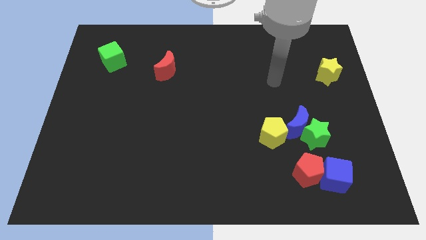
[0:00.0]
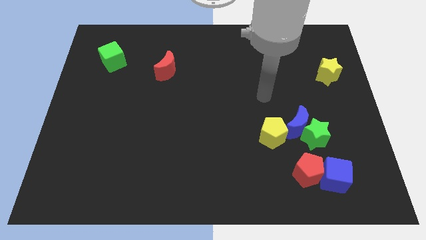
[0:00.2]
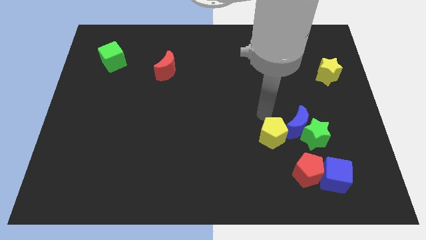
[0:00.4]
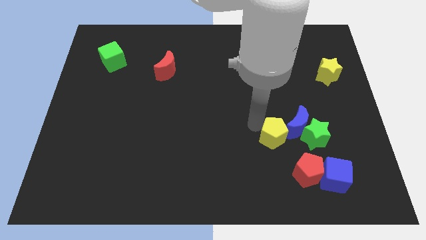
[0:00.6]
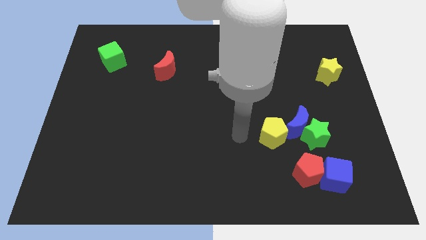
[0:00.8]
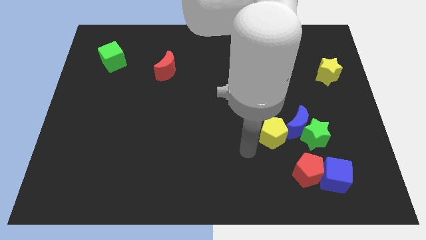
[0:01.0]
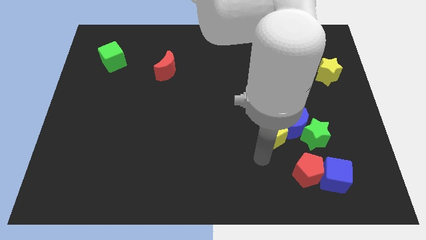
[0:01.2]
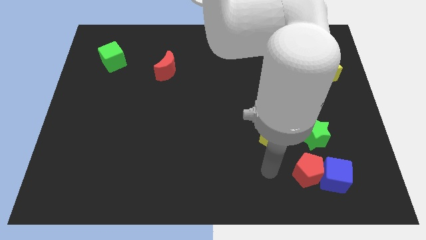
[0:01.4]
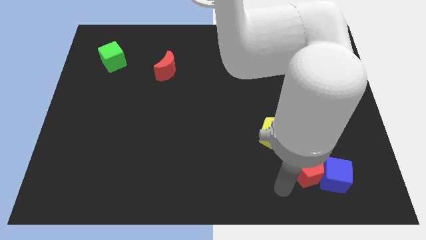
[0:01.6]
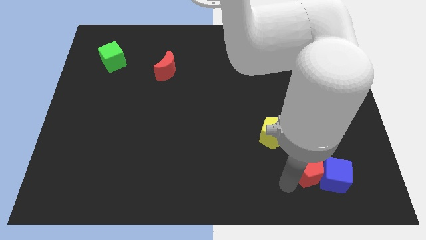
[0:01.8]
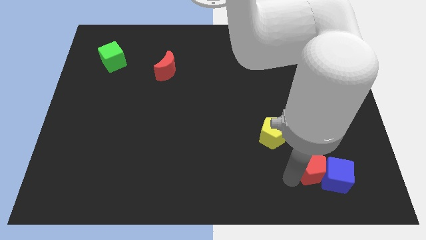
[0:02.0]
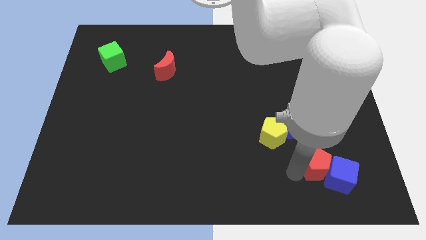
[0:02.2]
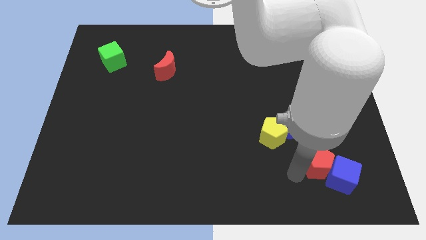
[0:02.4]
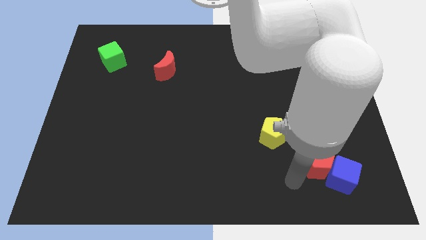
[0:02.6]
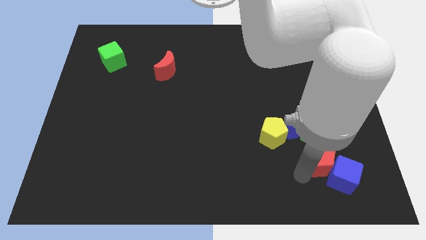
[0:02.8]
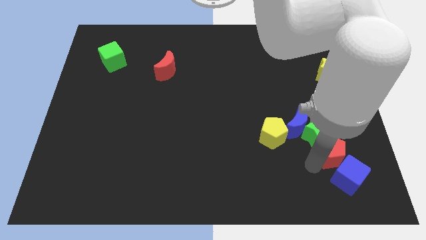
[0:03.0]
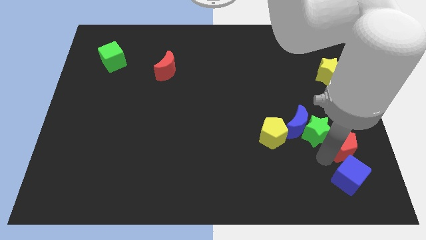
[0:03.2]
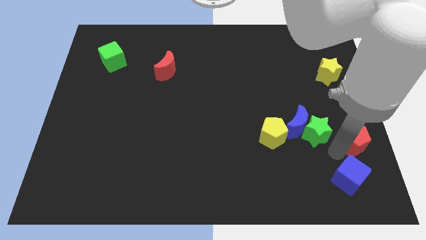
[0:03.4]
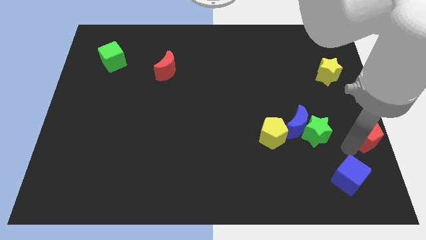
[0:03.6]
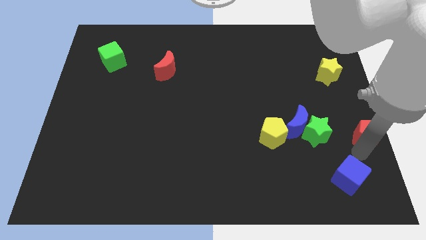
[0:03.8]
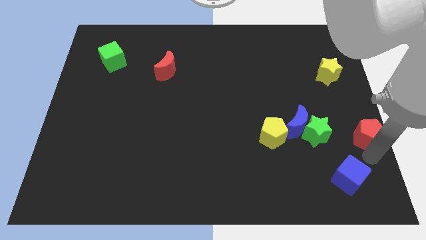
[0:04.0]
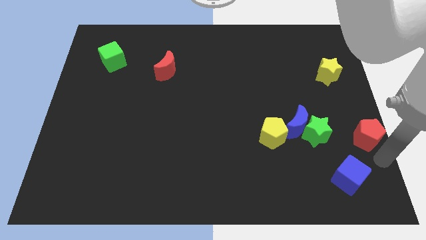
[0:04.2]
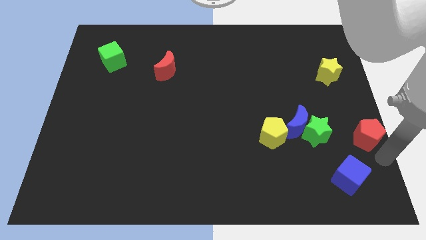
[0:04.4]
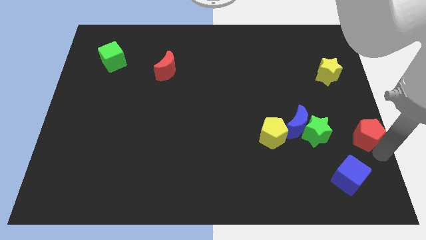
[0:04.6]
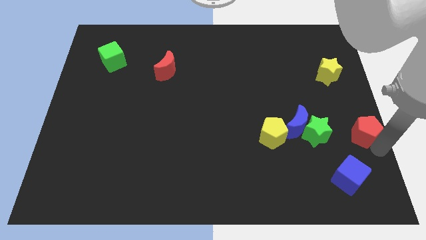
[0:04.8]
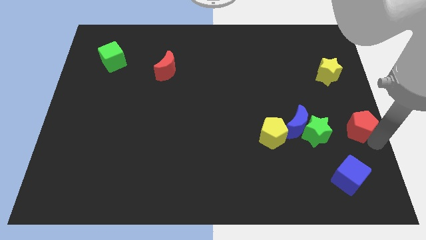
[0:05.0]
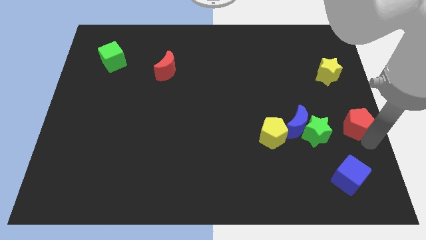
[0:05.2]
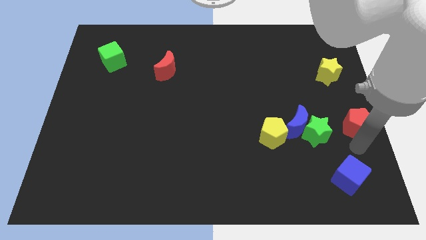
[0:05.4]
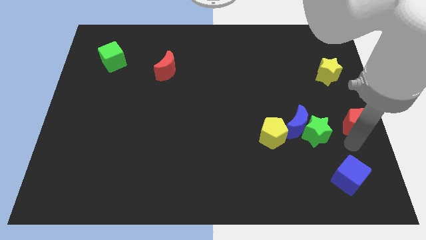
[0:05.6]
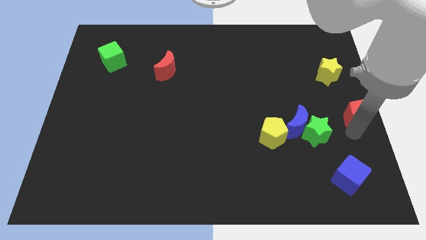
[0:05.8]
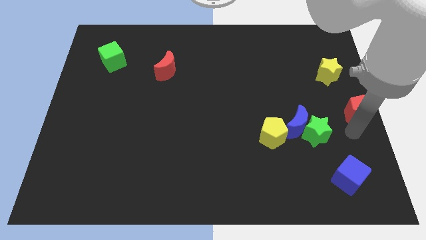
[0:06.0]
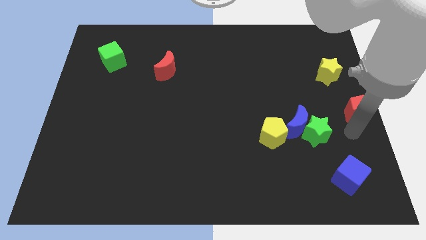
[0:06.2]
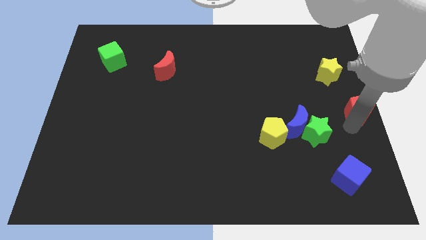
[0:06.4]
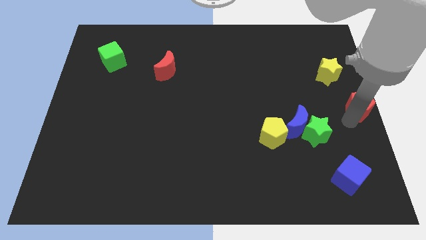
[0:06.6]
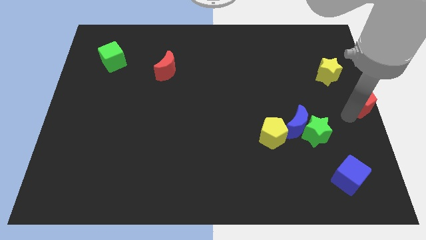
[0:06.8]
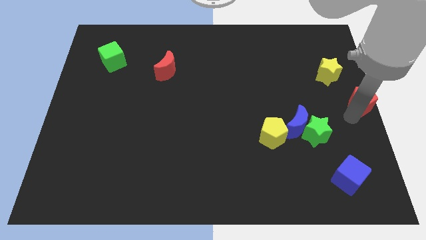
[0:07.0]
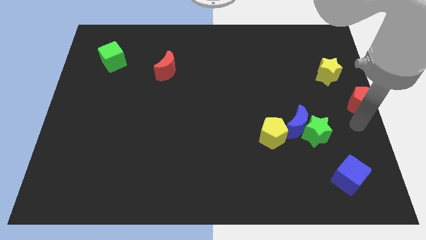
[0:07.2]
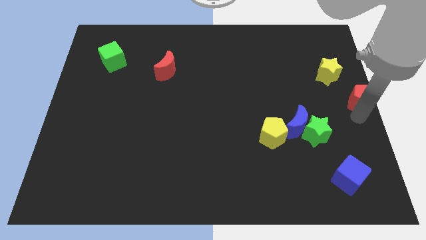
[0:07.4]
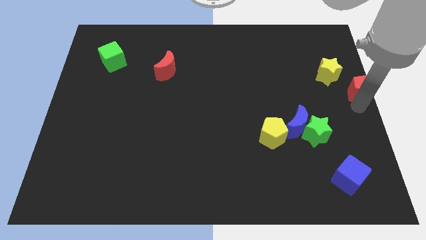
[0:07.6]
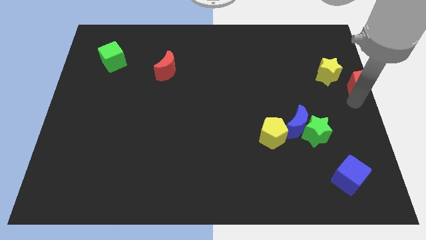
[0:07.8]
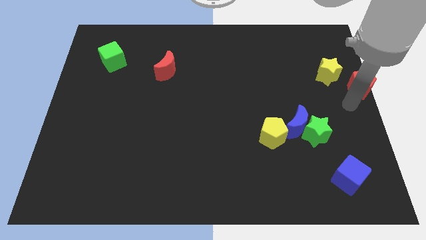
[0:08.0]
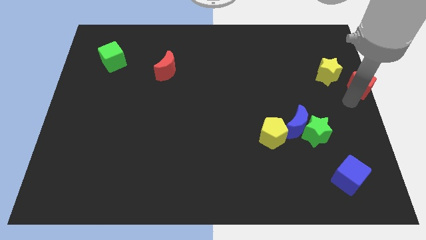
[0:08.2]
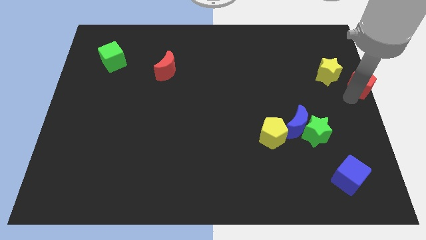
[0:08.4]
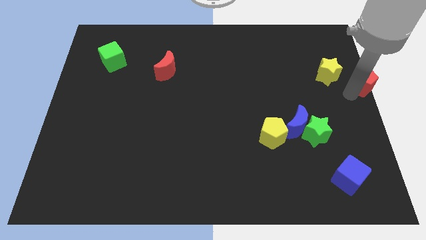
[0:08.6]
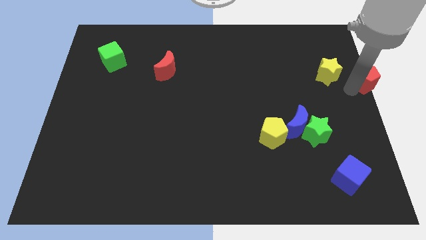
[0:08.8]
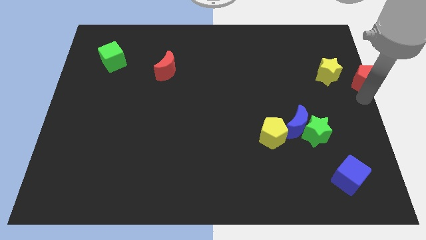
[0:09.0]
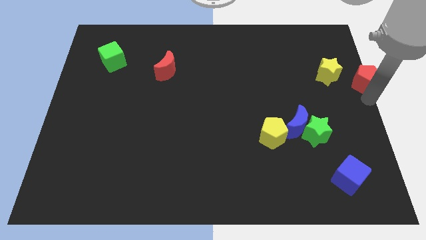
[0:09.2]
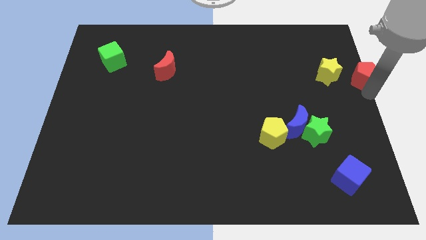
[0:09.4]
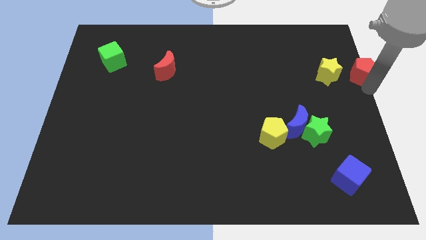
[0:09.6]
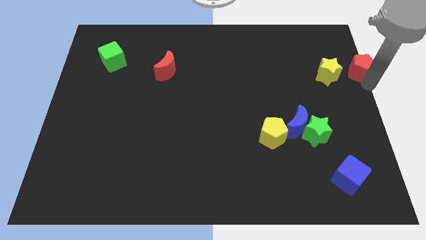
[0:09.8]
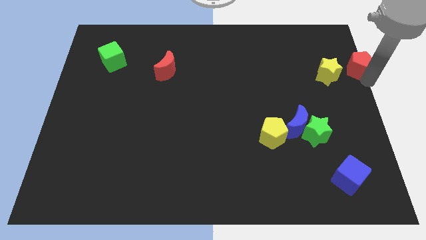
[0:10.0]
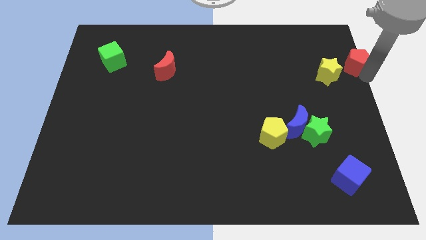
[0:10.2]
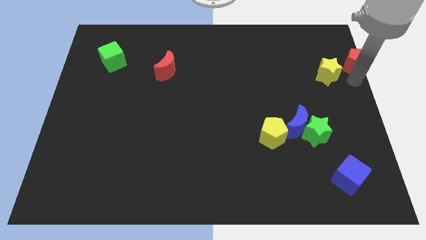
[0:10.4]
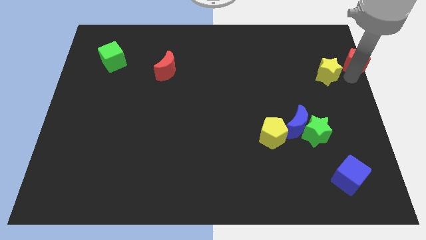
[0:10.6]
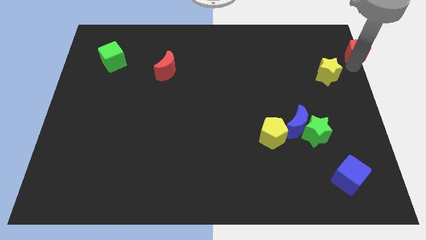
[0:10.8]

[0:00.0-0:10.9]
put the red pentagon to the upper right corner
